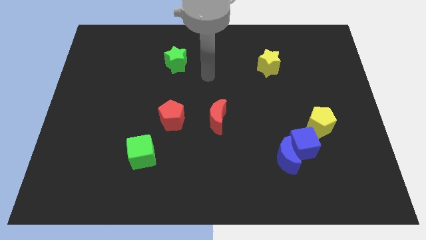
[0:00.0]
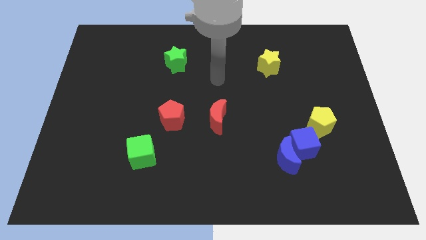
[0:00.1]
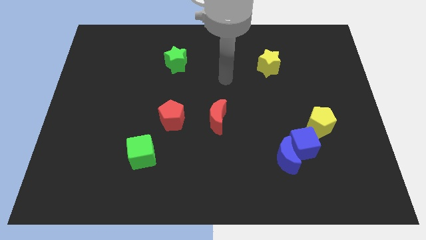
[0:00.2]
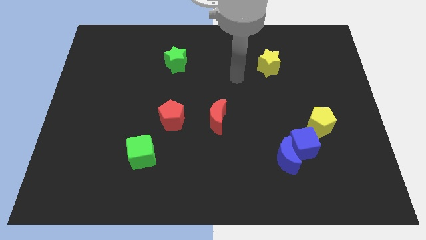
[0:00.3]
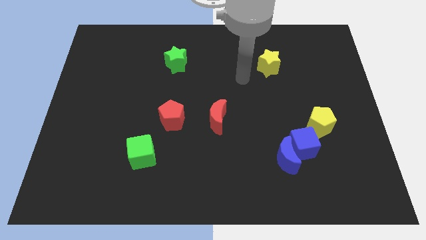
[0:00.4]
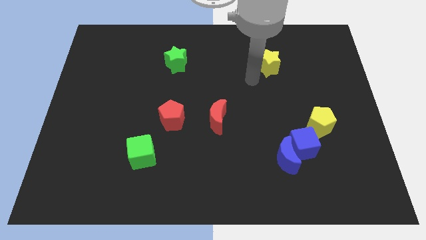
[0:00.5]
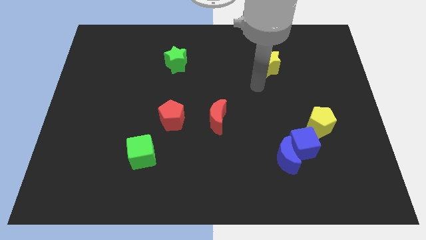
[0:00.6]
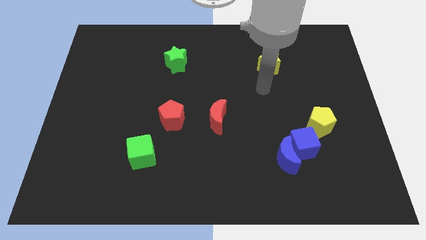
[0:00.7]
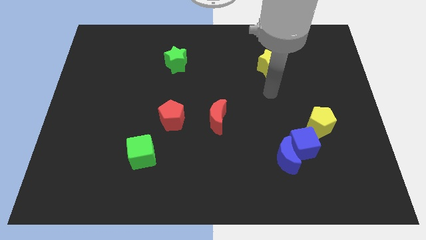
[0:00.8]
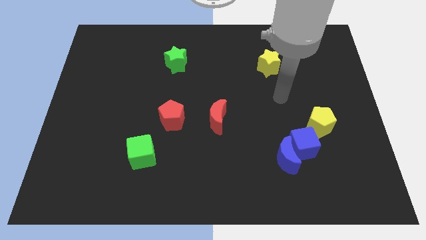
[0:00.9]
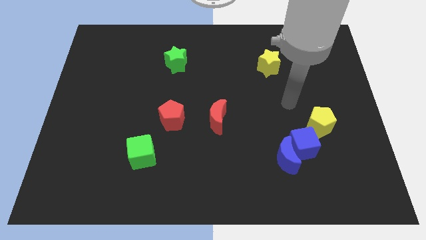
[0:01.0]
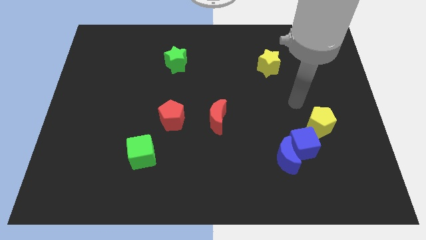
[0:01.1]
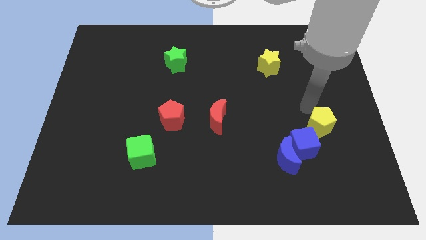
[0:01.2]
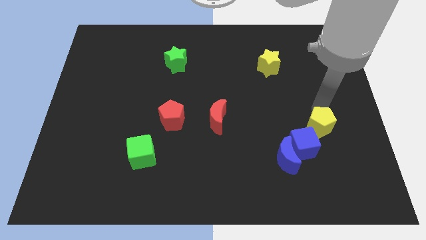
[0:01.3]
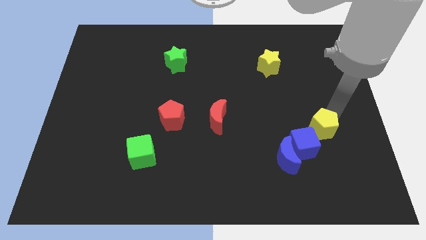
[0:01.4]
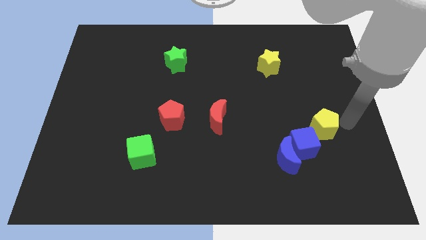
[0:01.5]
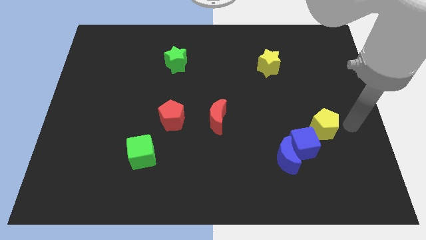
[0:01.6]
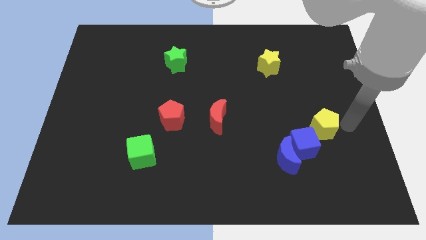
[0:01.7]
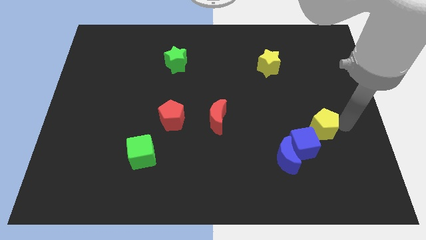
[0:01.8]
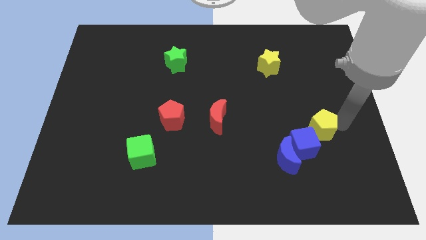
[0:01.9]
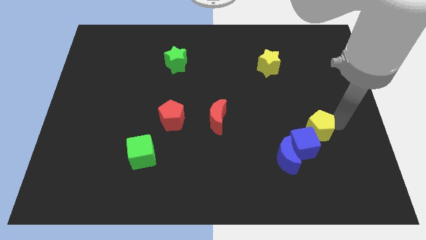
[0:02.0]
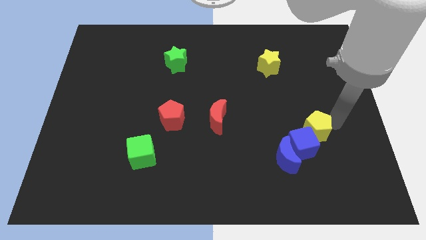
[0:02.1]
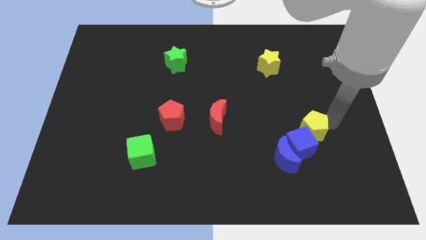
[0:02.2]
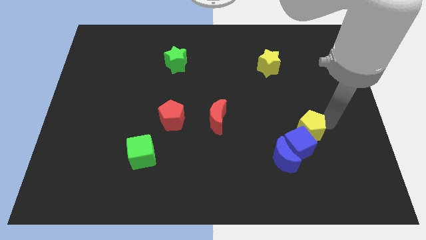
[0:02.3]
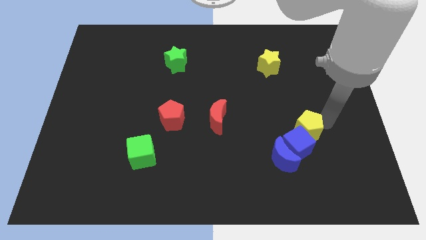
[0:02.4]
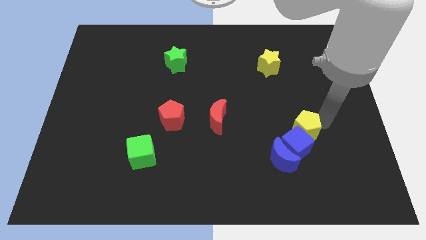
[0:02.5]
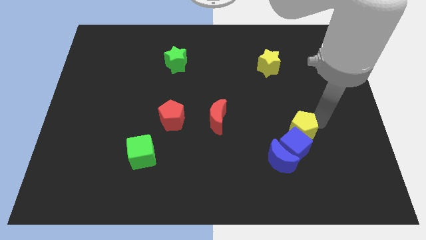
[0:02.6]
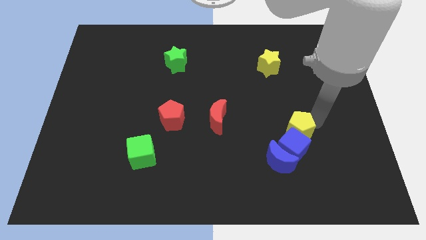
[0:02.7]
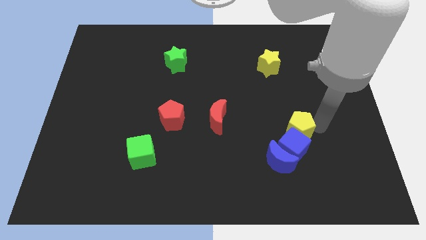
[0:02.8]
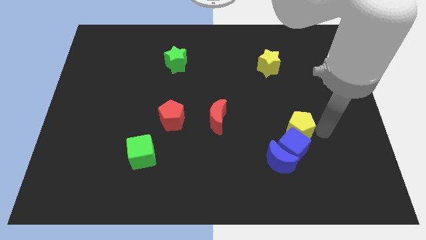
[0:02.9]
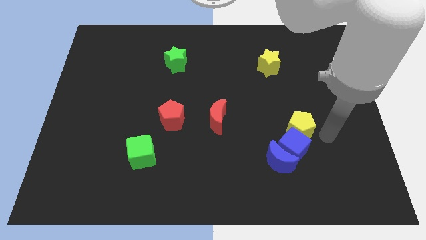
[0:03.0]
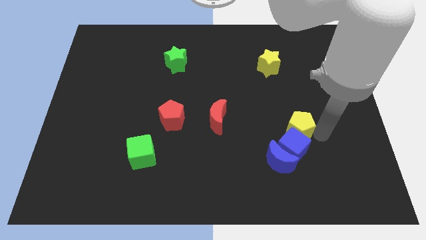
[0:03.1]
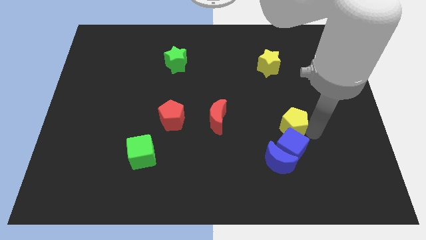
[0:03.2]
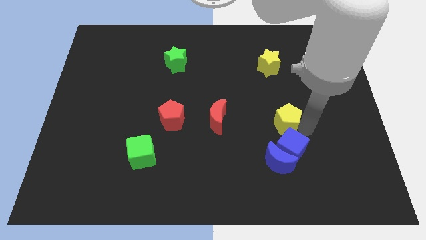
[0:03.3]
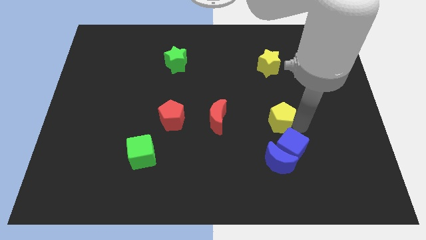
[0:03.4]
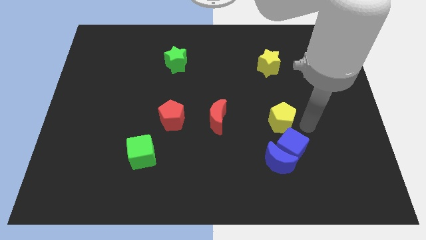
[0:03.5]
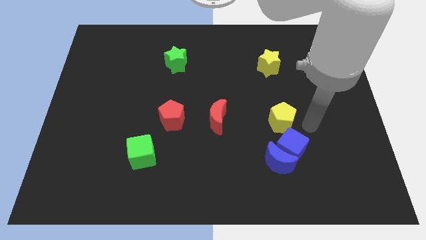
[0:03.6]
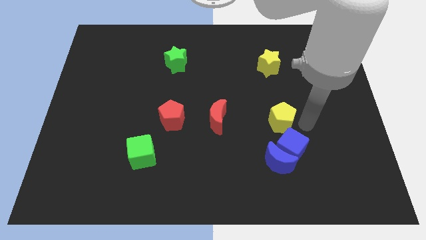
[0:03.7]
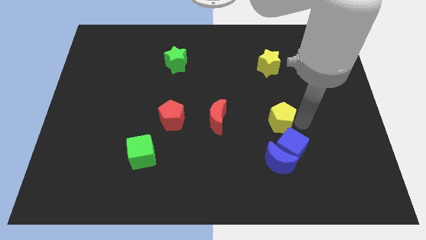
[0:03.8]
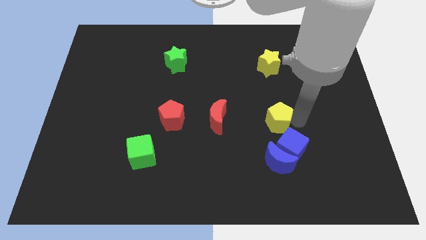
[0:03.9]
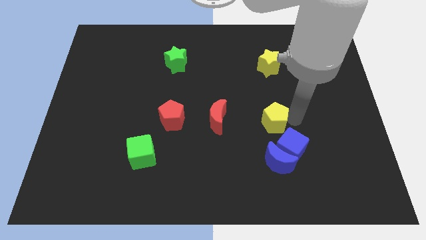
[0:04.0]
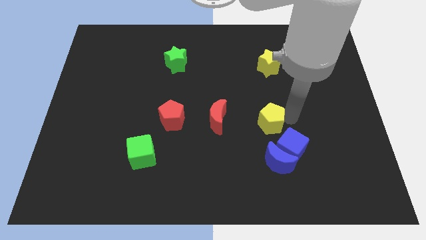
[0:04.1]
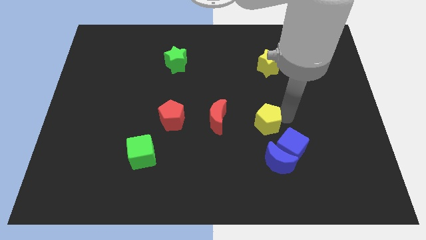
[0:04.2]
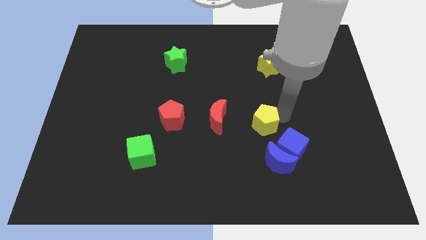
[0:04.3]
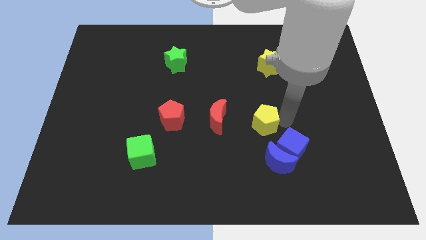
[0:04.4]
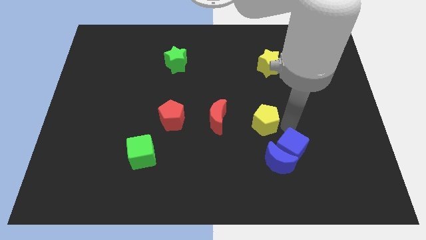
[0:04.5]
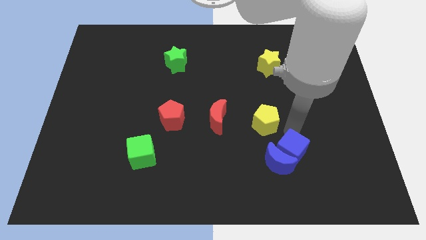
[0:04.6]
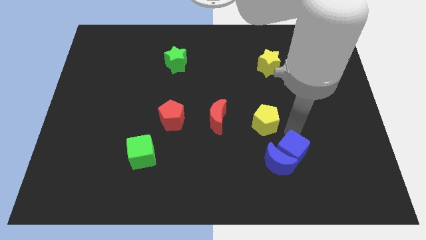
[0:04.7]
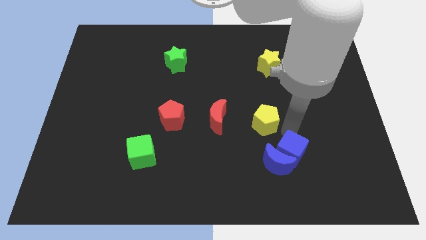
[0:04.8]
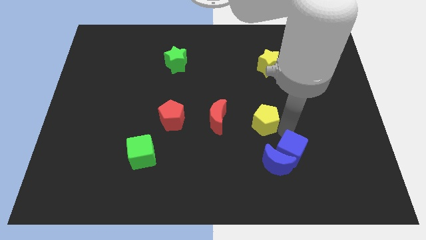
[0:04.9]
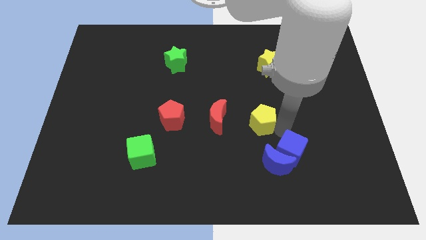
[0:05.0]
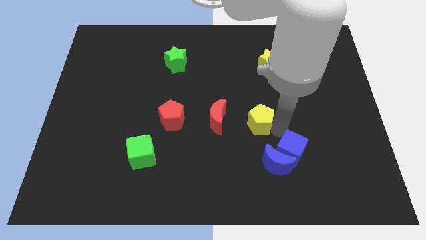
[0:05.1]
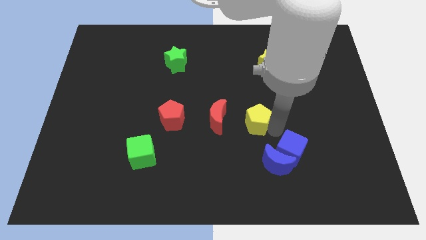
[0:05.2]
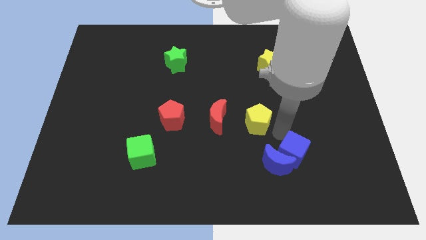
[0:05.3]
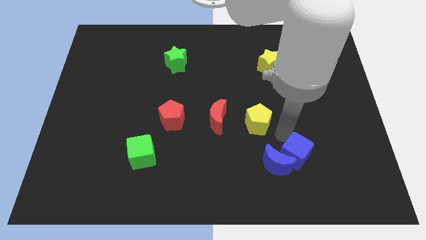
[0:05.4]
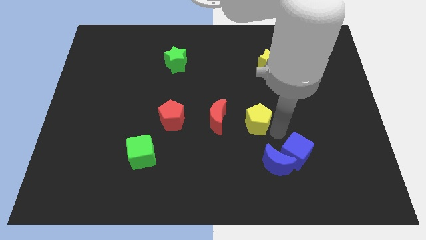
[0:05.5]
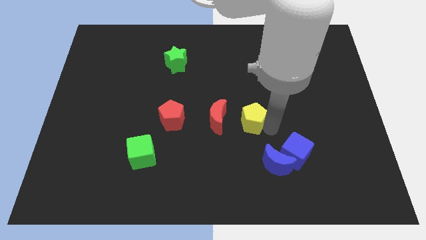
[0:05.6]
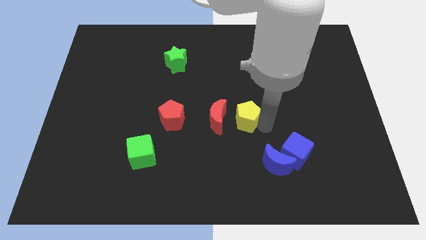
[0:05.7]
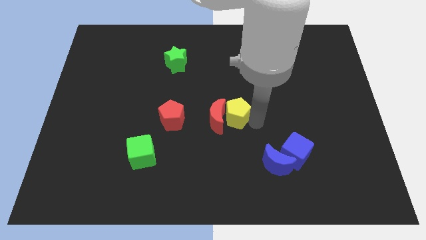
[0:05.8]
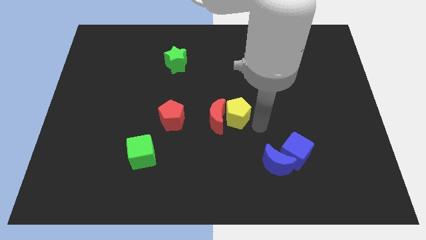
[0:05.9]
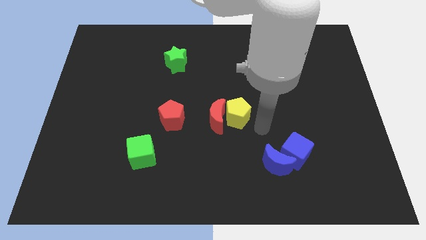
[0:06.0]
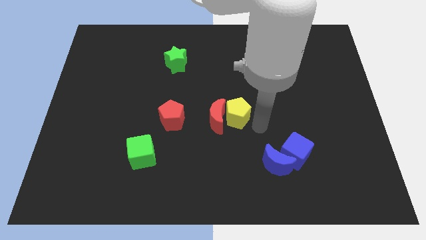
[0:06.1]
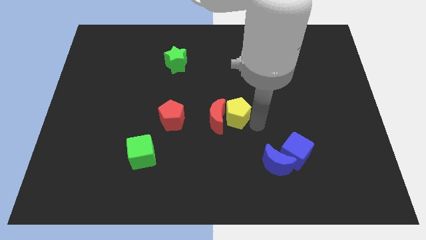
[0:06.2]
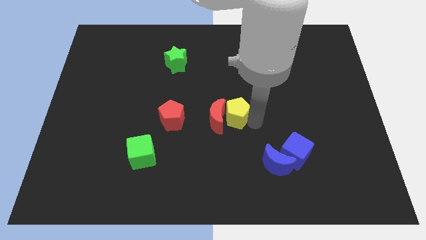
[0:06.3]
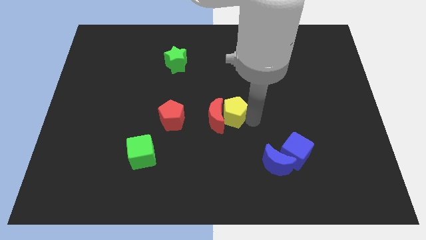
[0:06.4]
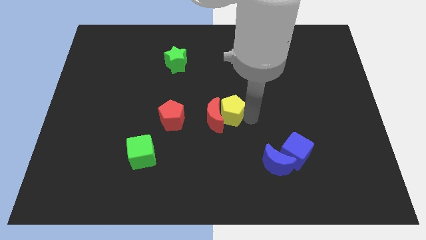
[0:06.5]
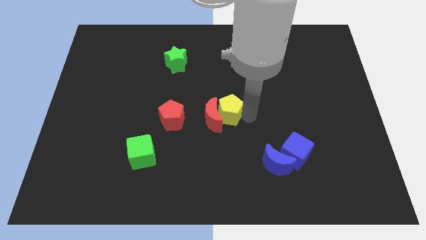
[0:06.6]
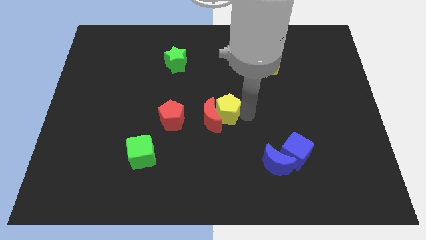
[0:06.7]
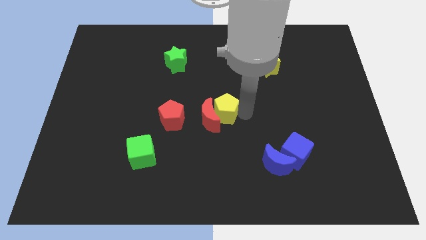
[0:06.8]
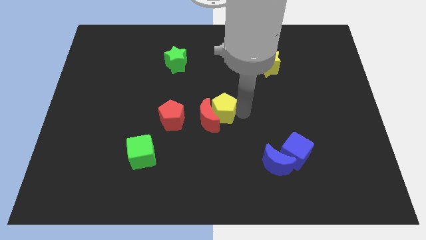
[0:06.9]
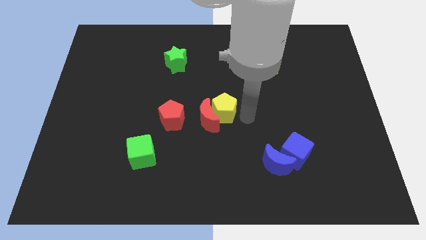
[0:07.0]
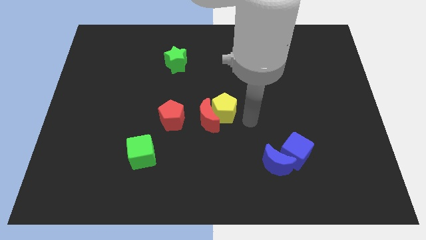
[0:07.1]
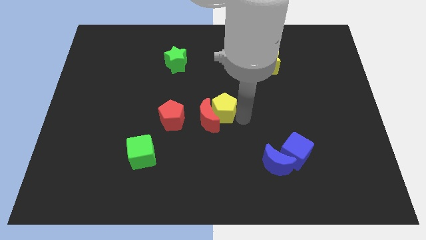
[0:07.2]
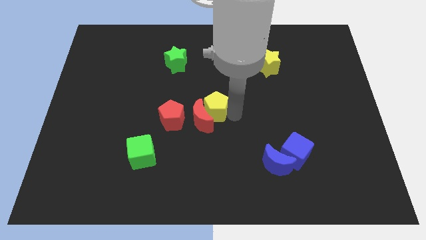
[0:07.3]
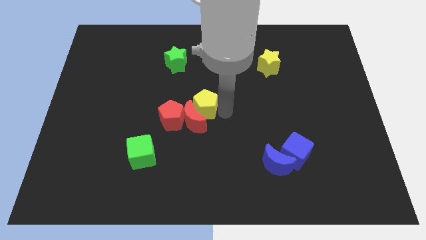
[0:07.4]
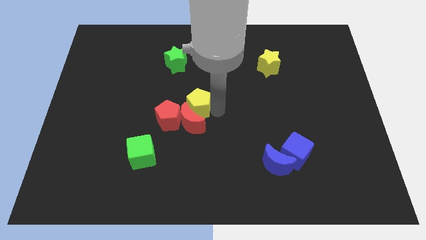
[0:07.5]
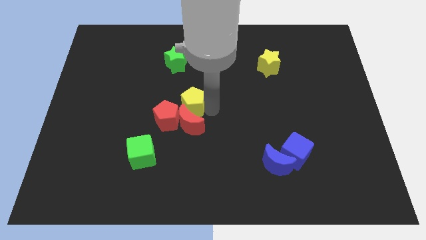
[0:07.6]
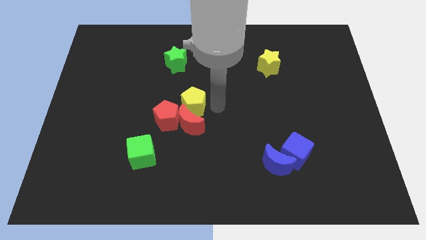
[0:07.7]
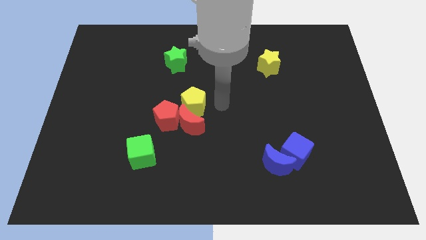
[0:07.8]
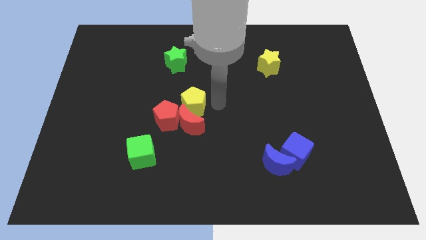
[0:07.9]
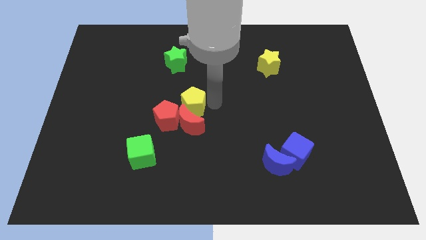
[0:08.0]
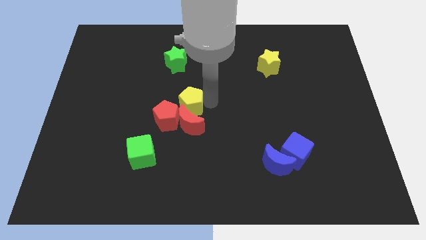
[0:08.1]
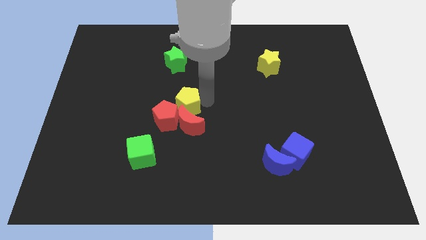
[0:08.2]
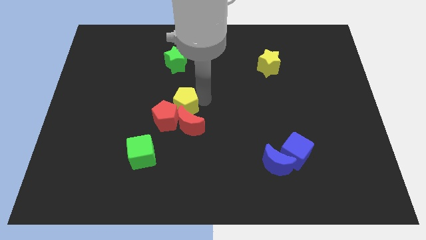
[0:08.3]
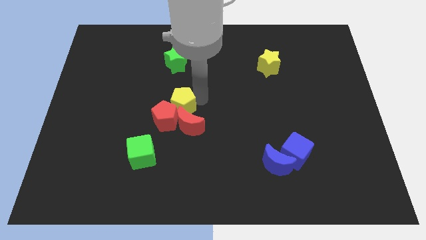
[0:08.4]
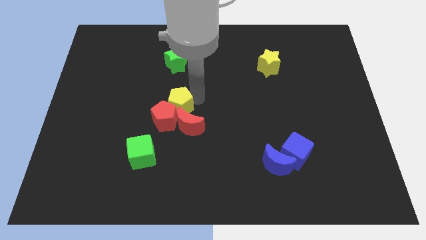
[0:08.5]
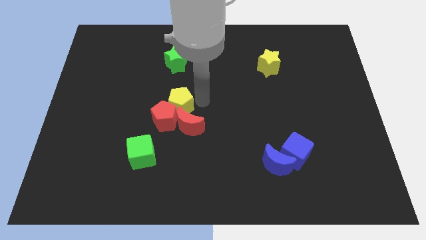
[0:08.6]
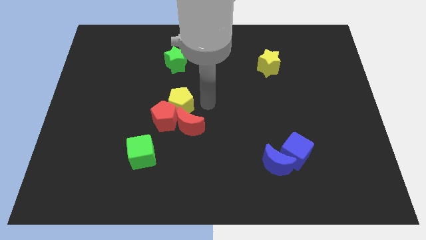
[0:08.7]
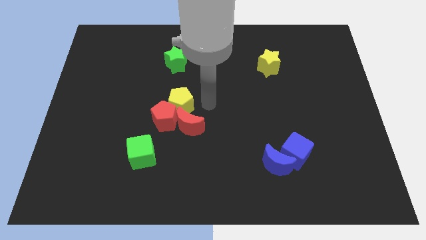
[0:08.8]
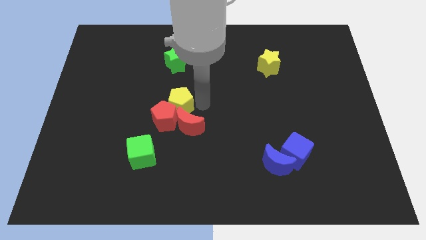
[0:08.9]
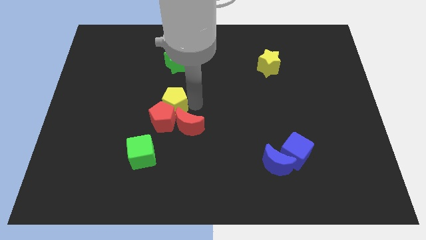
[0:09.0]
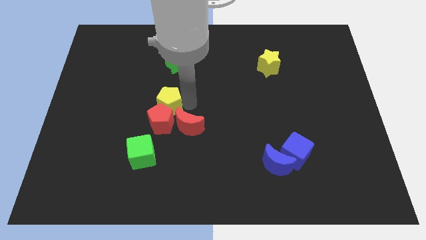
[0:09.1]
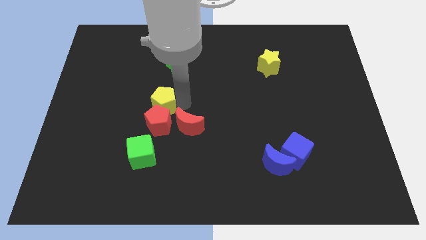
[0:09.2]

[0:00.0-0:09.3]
push the yellow pentagon to the top side of the green cube
